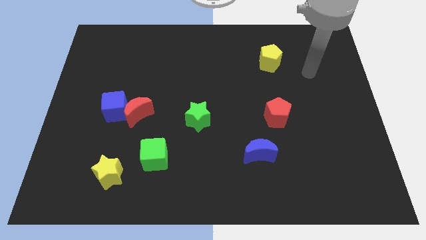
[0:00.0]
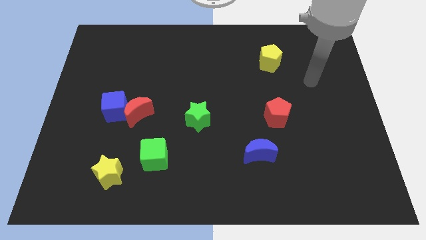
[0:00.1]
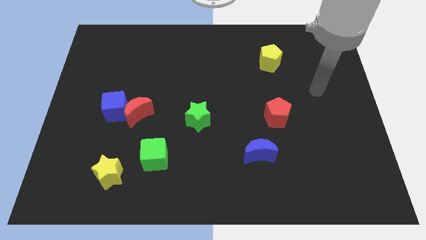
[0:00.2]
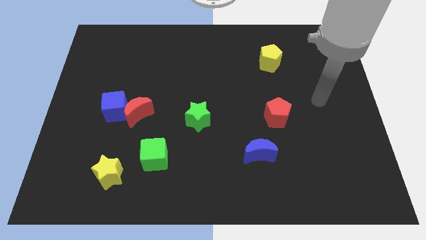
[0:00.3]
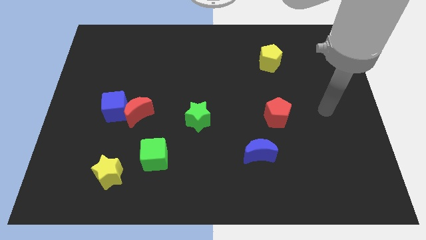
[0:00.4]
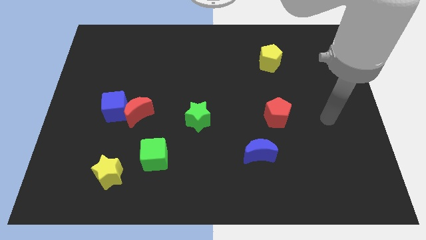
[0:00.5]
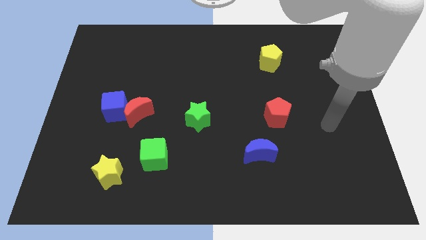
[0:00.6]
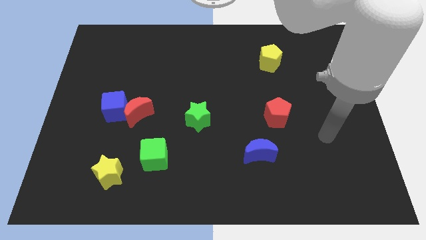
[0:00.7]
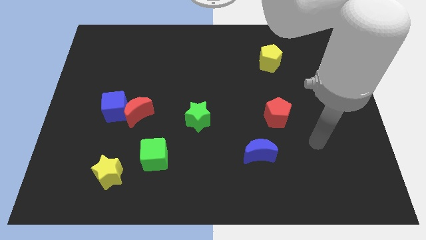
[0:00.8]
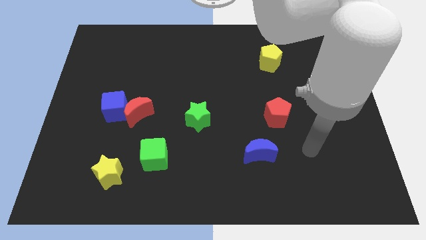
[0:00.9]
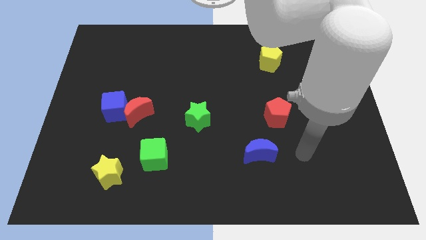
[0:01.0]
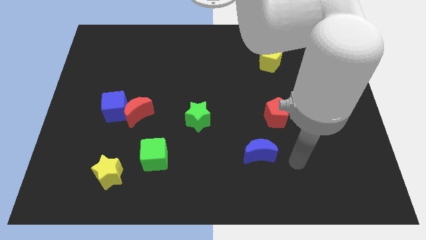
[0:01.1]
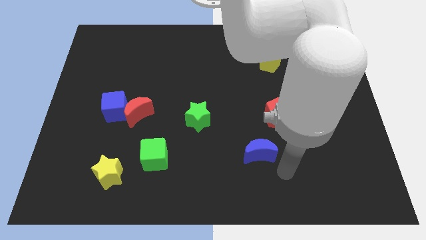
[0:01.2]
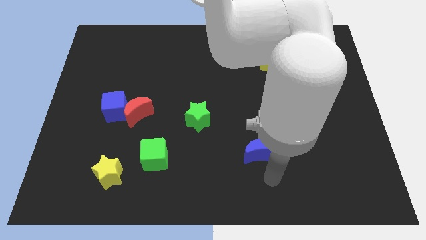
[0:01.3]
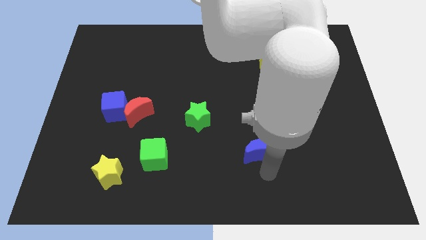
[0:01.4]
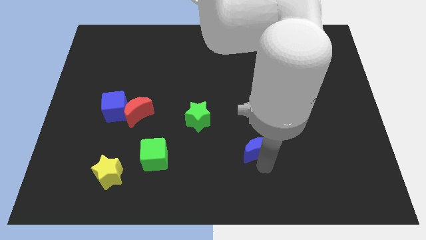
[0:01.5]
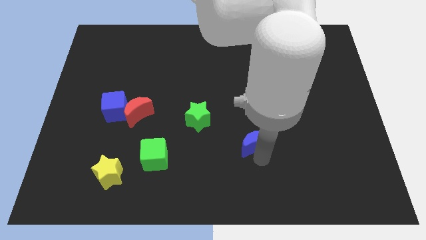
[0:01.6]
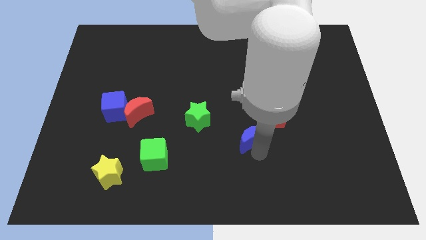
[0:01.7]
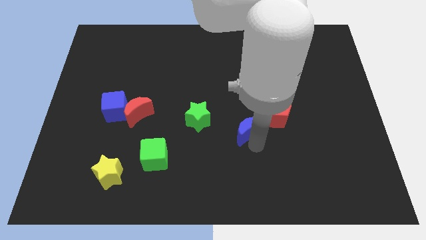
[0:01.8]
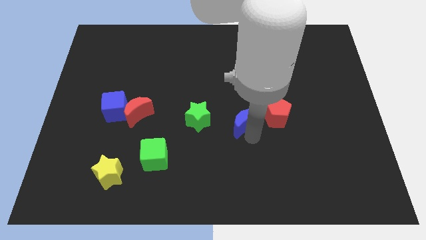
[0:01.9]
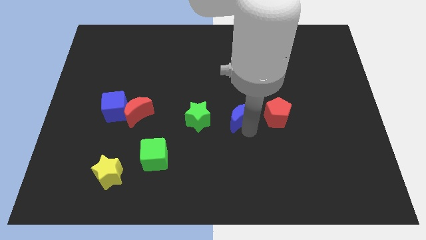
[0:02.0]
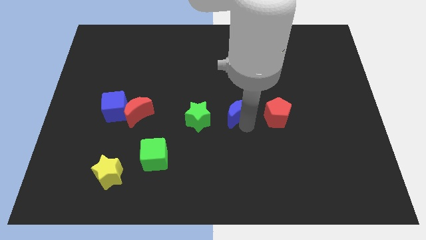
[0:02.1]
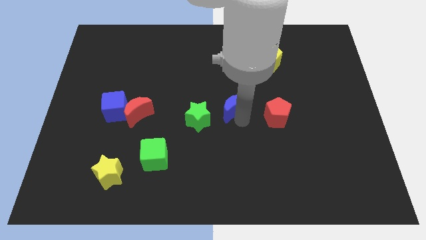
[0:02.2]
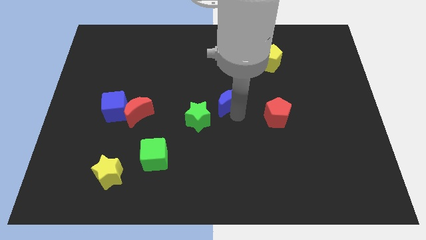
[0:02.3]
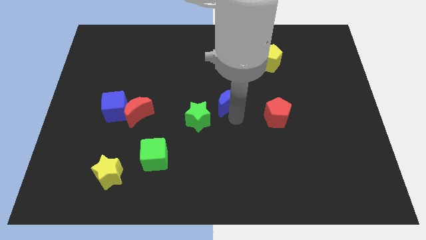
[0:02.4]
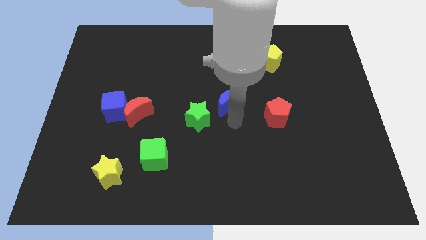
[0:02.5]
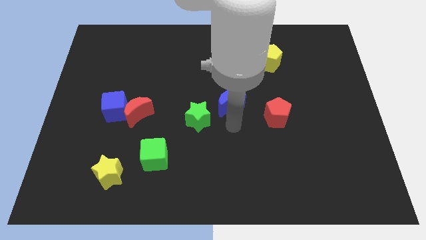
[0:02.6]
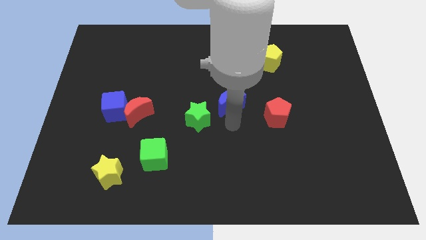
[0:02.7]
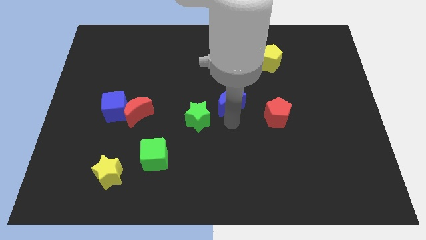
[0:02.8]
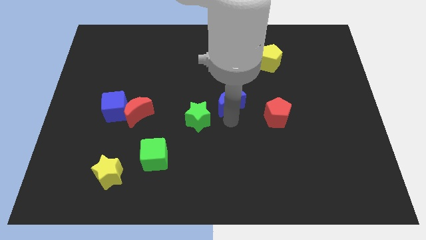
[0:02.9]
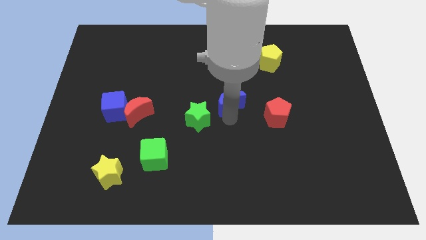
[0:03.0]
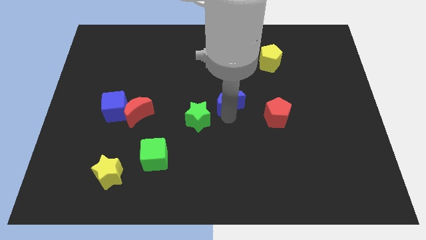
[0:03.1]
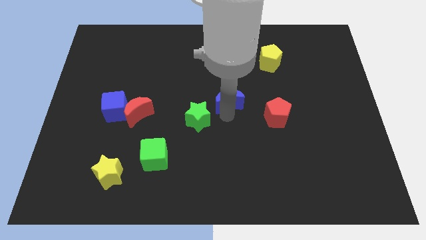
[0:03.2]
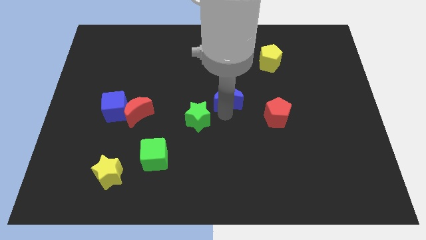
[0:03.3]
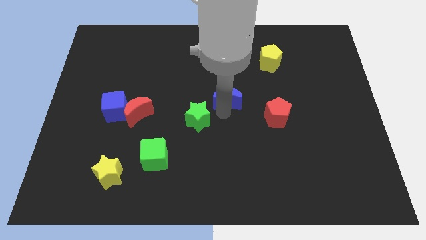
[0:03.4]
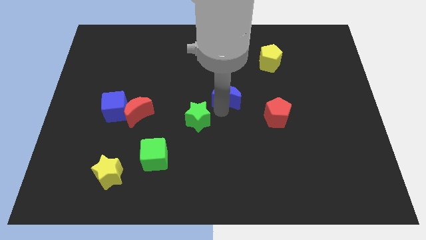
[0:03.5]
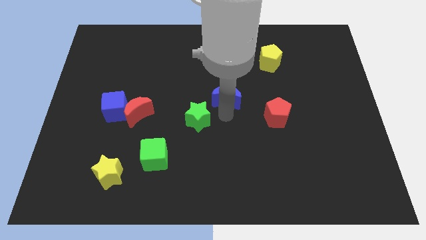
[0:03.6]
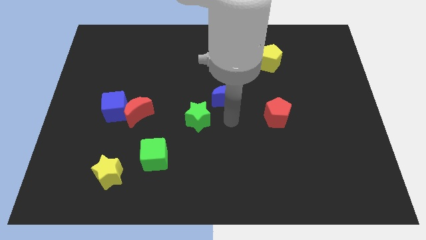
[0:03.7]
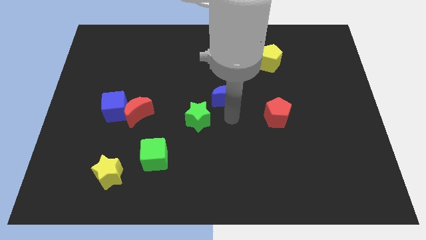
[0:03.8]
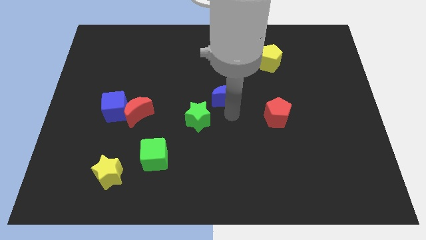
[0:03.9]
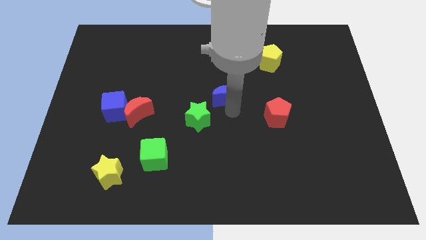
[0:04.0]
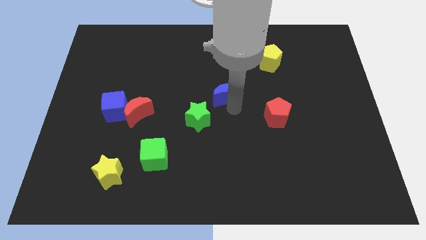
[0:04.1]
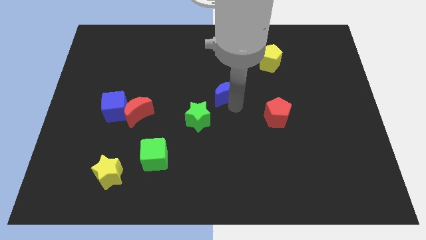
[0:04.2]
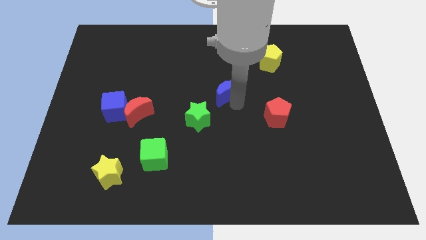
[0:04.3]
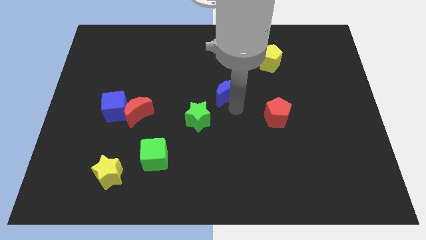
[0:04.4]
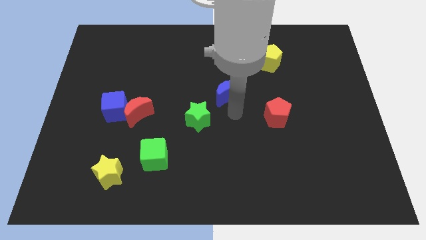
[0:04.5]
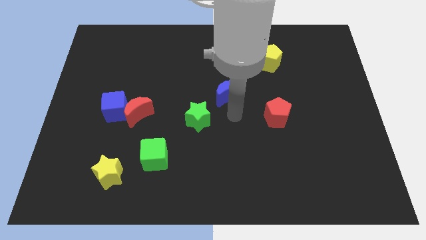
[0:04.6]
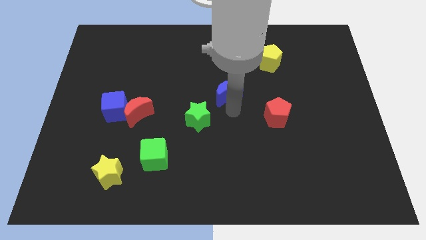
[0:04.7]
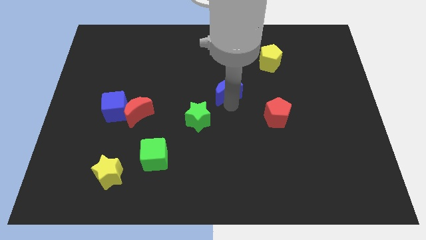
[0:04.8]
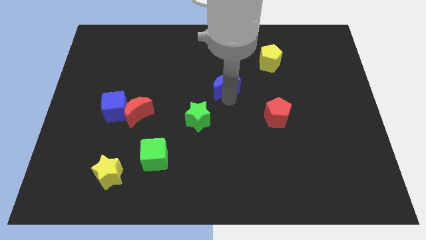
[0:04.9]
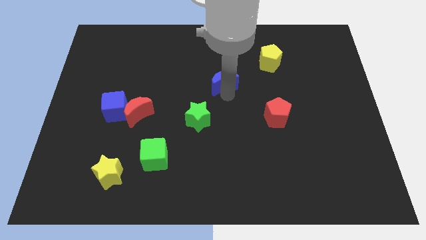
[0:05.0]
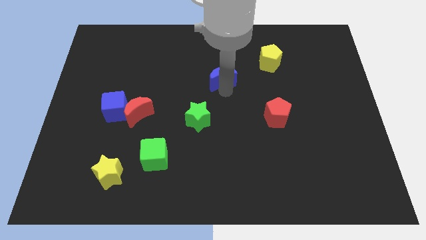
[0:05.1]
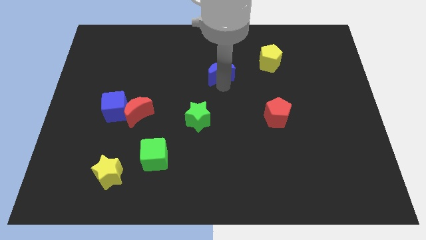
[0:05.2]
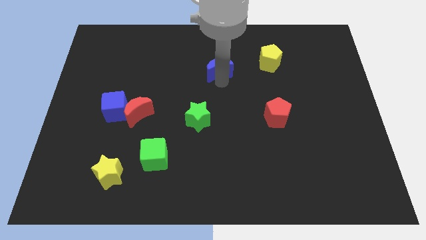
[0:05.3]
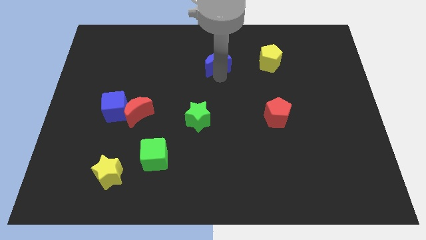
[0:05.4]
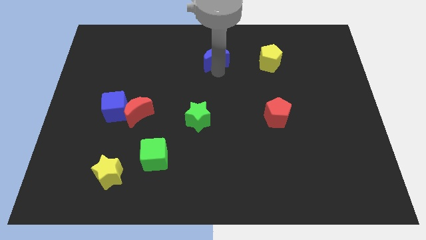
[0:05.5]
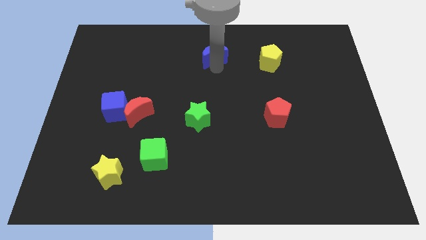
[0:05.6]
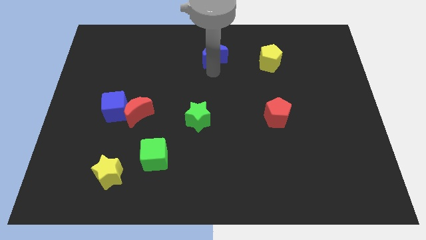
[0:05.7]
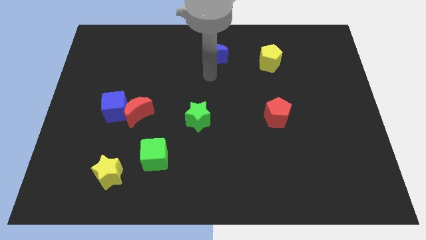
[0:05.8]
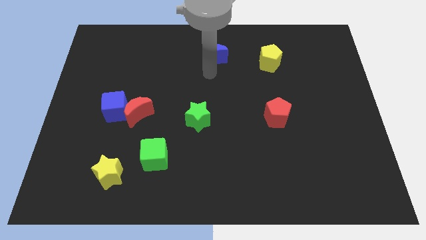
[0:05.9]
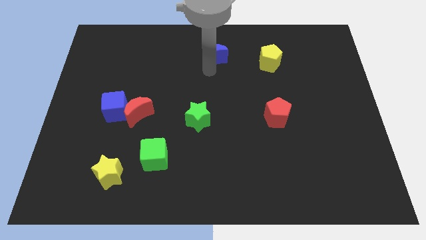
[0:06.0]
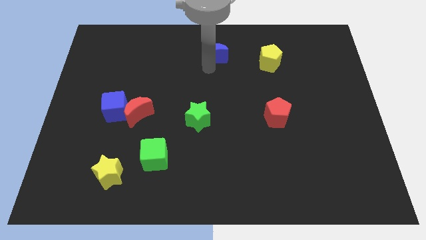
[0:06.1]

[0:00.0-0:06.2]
move the blue moon to the towards your base

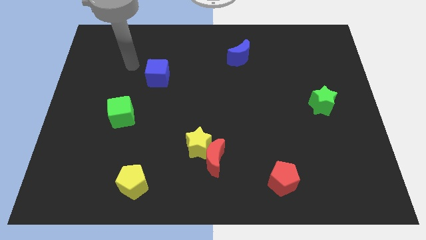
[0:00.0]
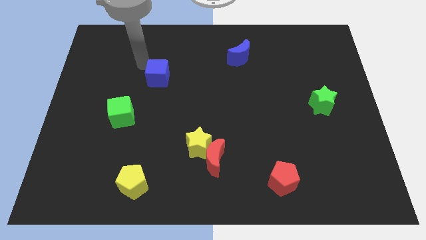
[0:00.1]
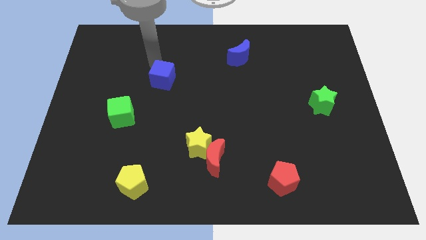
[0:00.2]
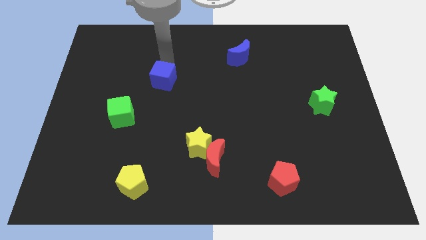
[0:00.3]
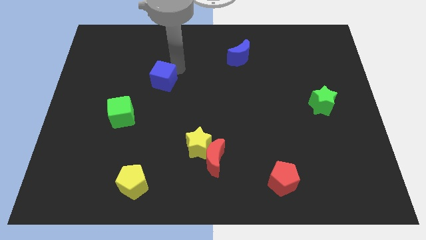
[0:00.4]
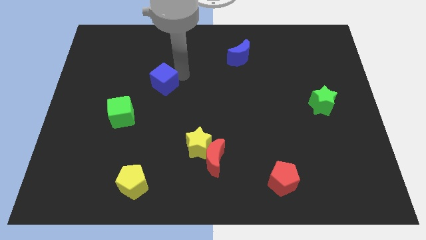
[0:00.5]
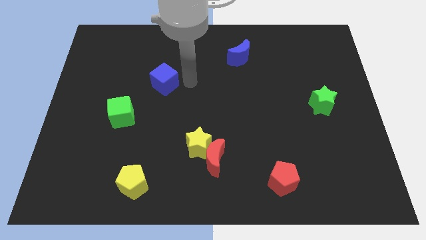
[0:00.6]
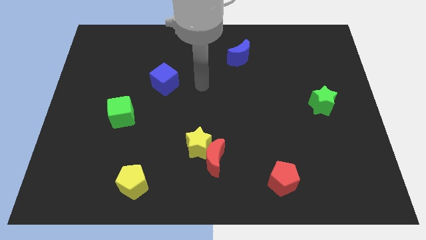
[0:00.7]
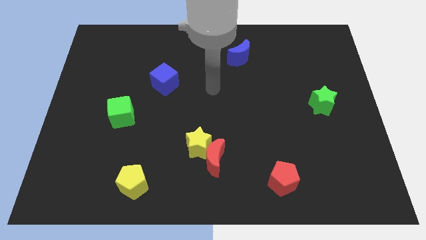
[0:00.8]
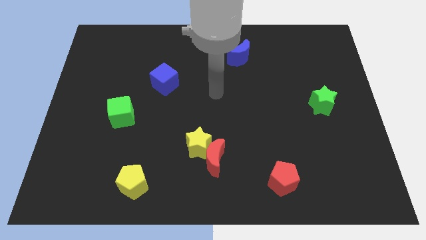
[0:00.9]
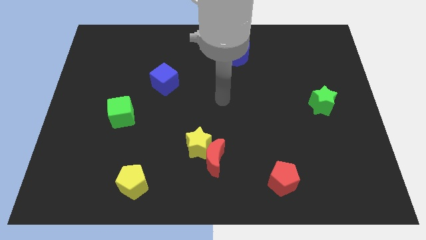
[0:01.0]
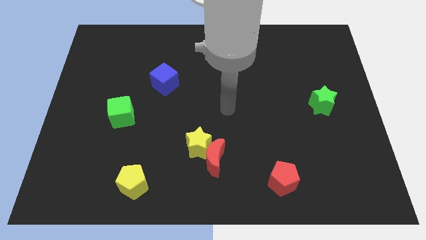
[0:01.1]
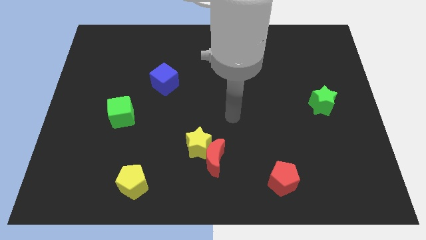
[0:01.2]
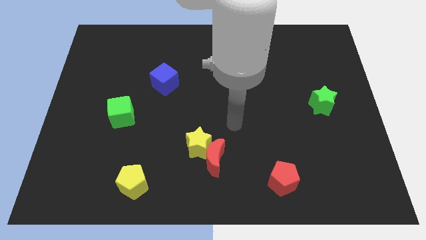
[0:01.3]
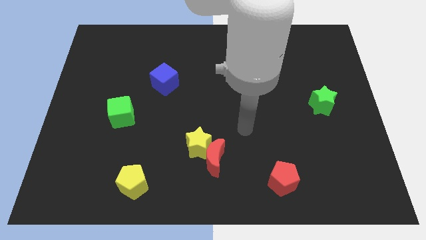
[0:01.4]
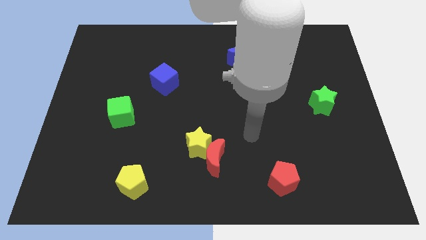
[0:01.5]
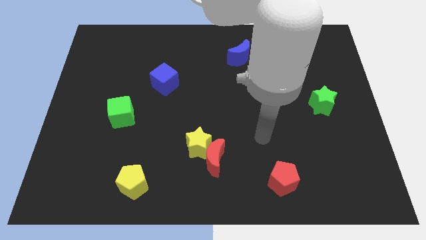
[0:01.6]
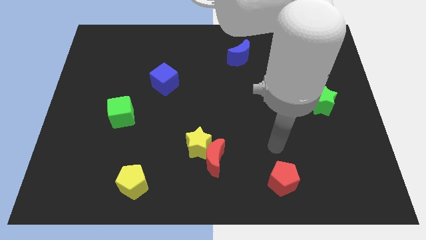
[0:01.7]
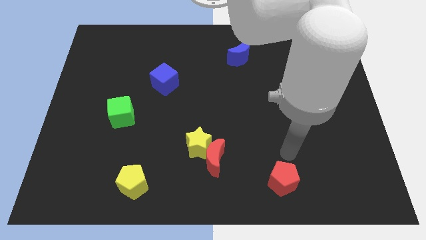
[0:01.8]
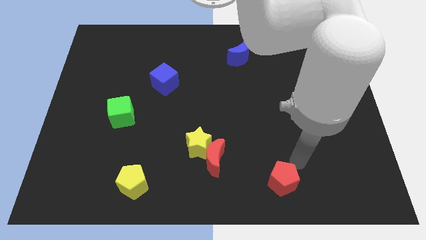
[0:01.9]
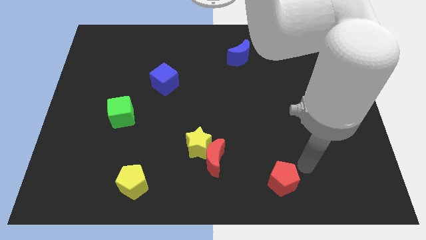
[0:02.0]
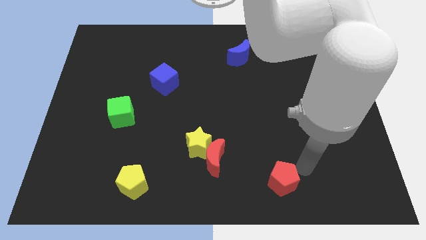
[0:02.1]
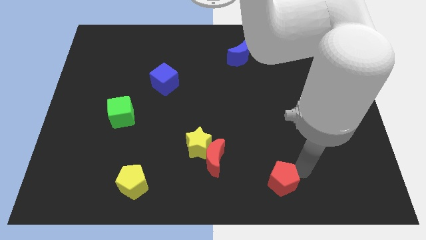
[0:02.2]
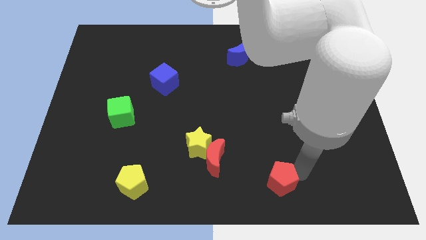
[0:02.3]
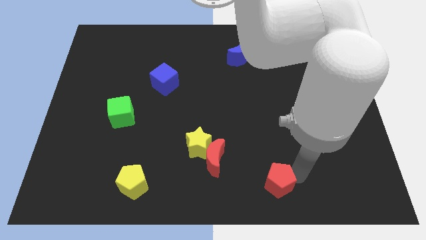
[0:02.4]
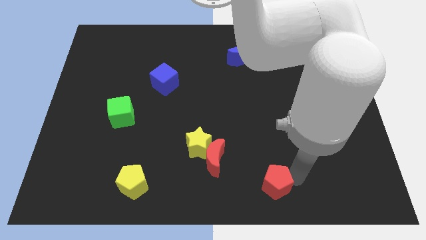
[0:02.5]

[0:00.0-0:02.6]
slide the red pentagon to the bottom
